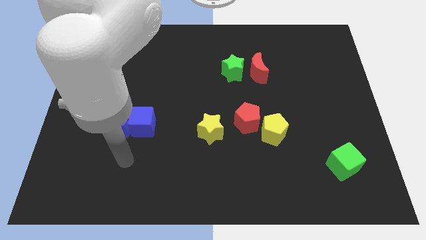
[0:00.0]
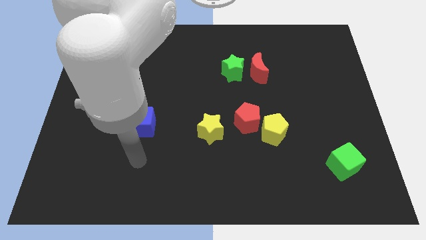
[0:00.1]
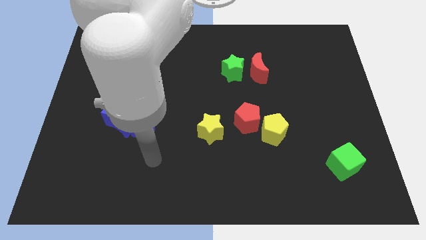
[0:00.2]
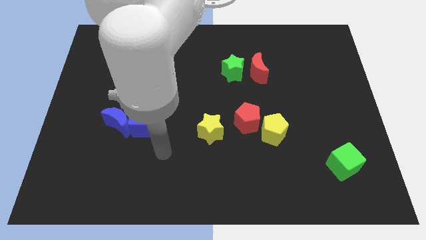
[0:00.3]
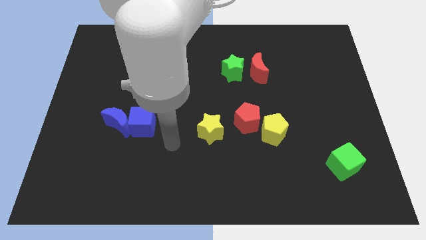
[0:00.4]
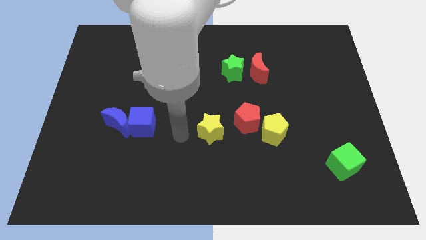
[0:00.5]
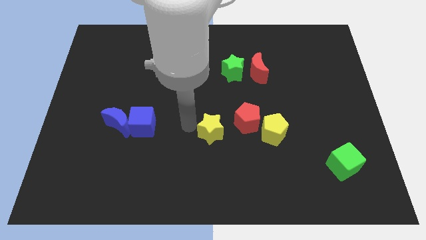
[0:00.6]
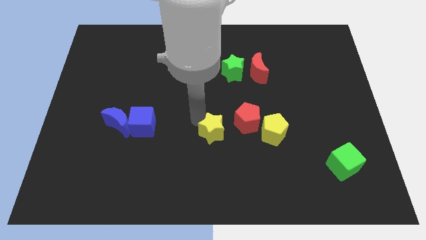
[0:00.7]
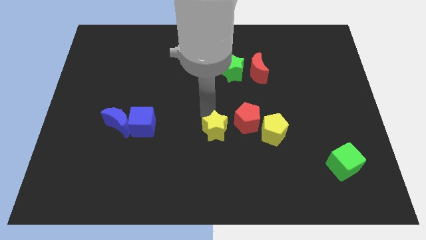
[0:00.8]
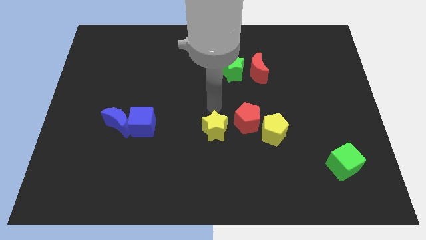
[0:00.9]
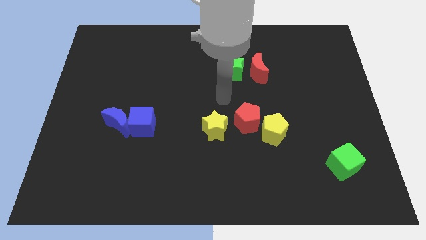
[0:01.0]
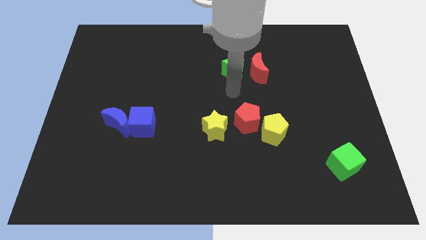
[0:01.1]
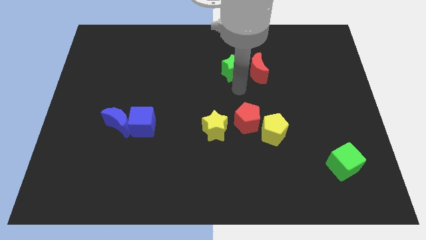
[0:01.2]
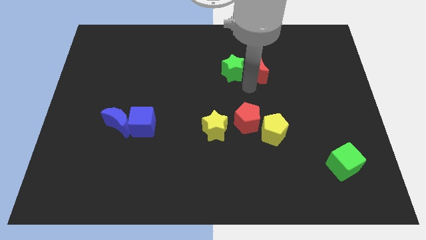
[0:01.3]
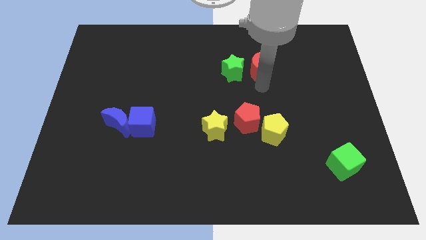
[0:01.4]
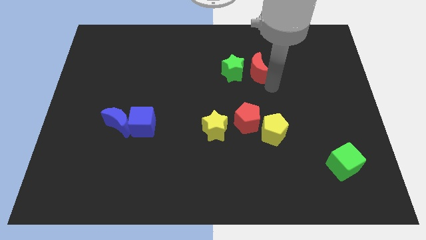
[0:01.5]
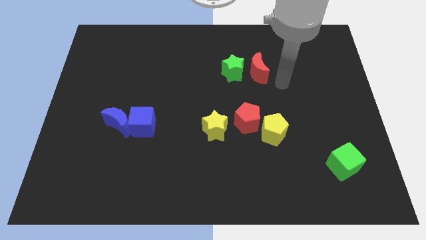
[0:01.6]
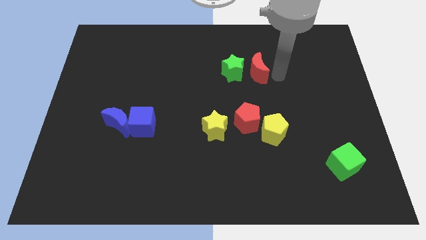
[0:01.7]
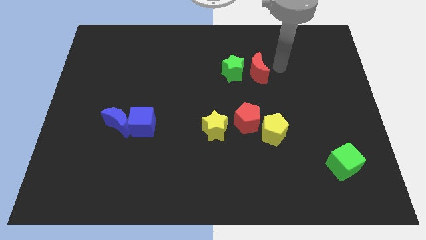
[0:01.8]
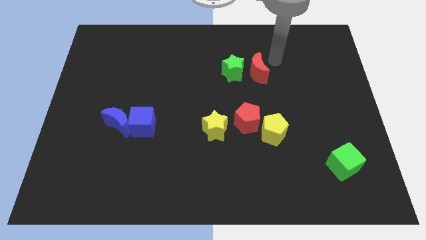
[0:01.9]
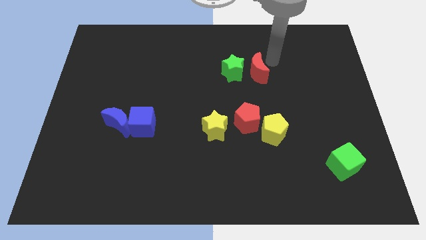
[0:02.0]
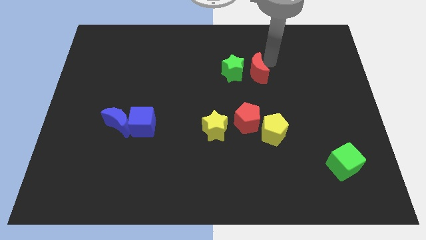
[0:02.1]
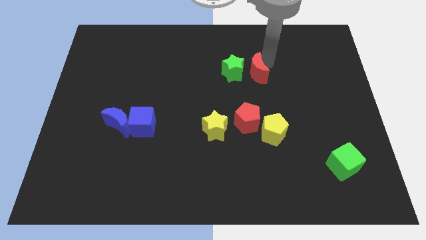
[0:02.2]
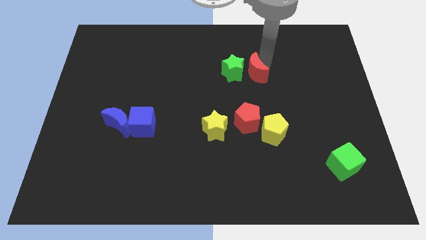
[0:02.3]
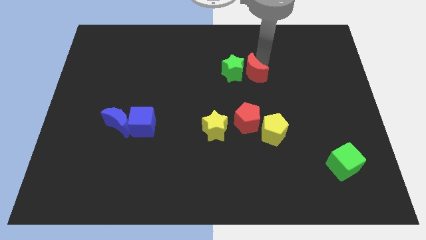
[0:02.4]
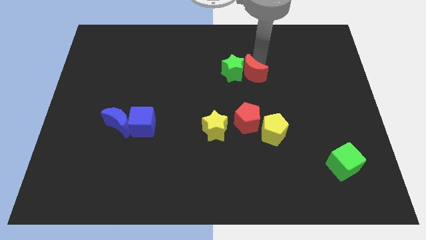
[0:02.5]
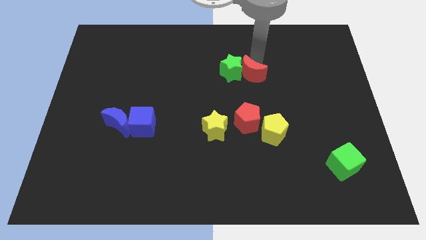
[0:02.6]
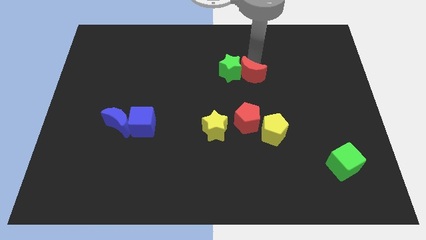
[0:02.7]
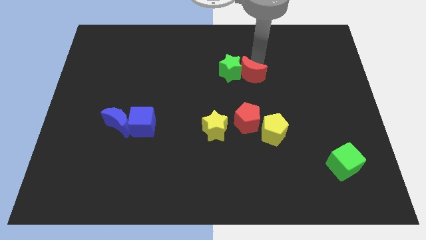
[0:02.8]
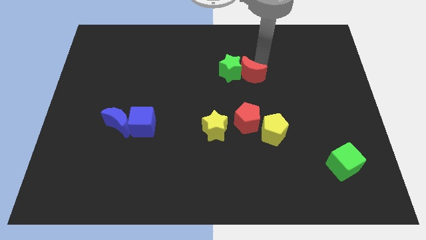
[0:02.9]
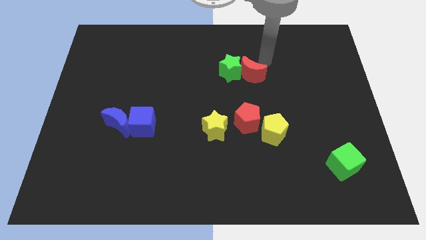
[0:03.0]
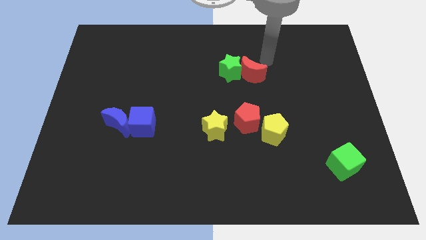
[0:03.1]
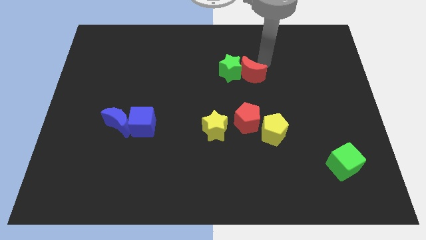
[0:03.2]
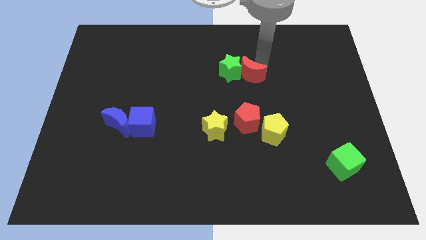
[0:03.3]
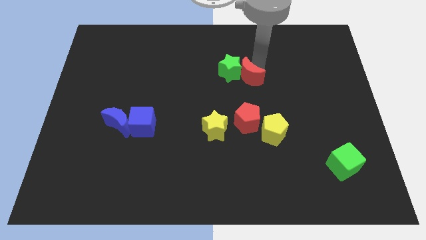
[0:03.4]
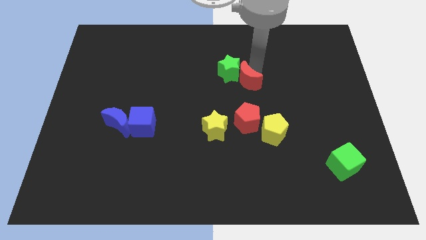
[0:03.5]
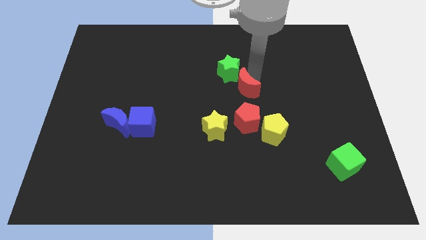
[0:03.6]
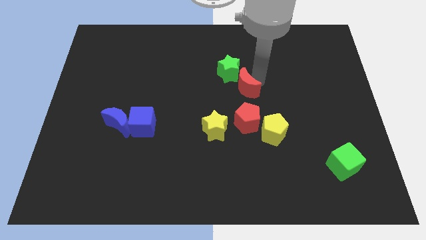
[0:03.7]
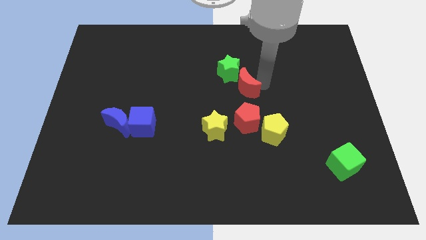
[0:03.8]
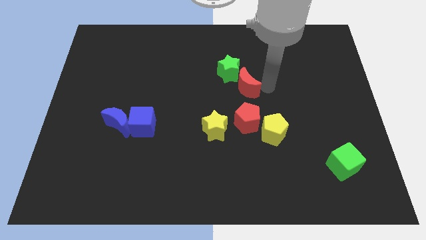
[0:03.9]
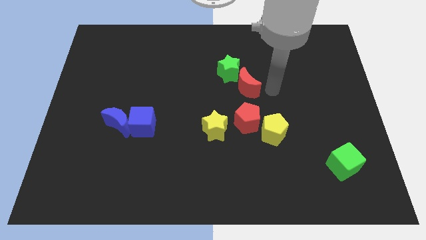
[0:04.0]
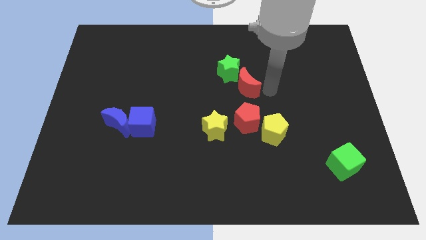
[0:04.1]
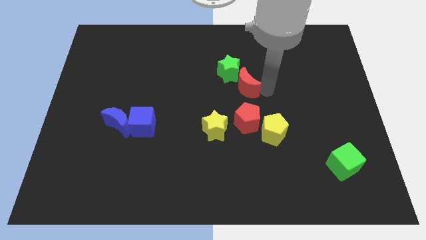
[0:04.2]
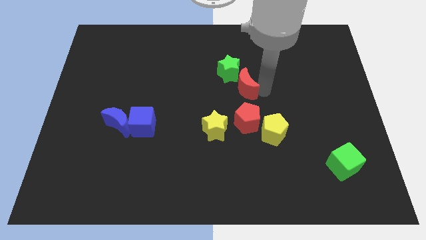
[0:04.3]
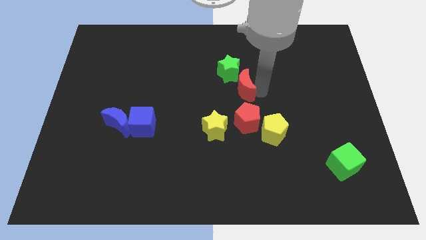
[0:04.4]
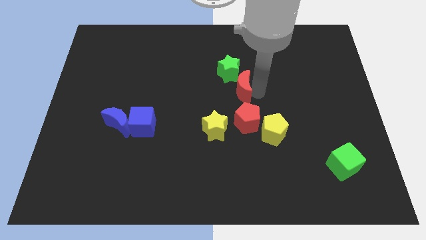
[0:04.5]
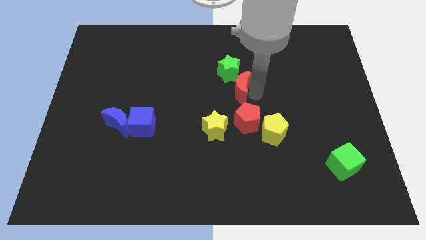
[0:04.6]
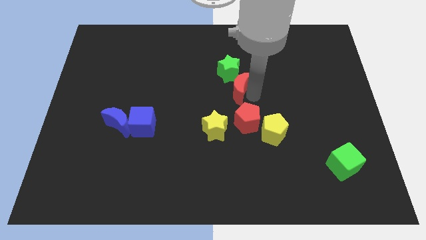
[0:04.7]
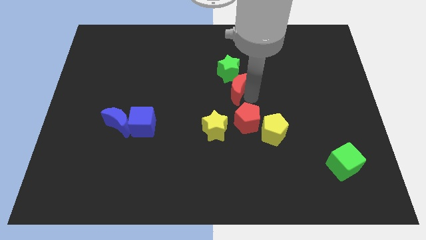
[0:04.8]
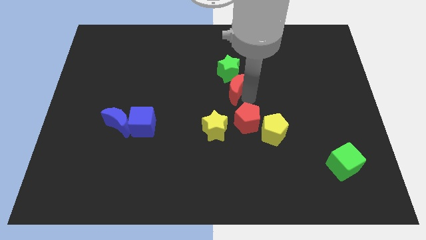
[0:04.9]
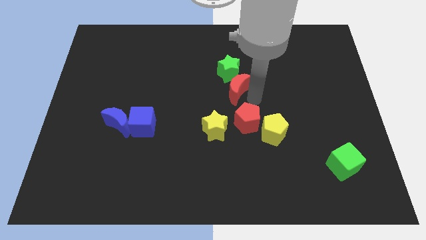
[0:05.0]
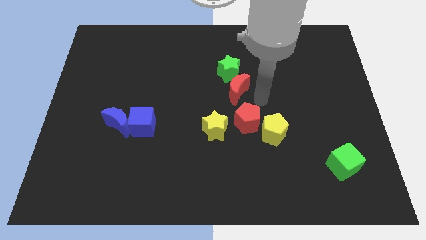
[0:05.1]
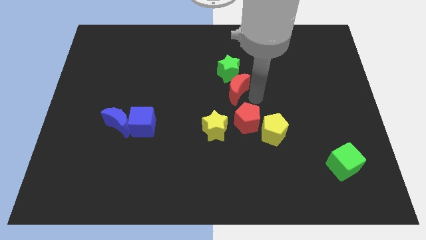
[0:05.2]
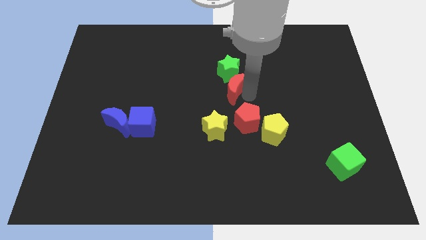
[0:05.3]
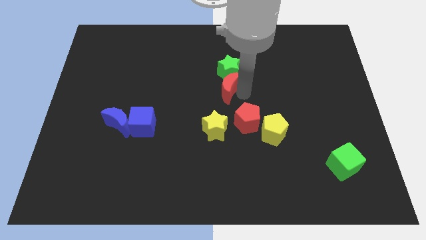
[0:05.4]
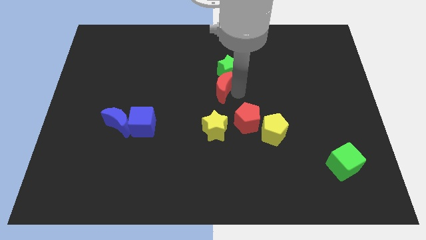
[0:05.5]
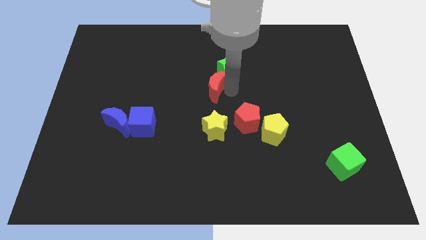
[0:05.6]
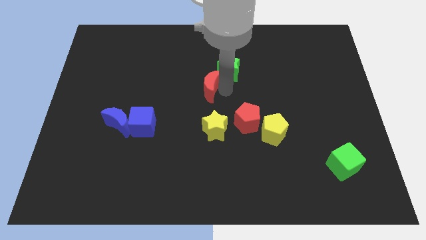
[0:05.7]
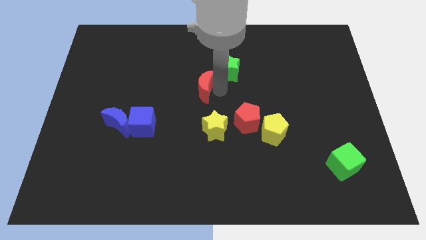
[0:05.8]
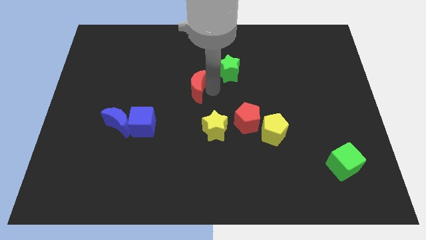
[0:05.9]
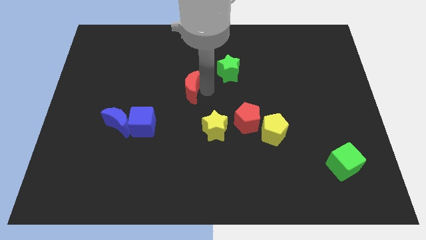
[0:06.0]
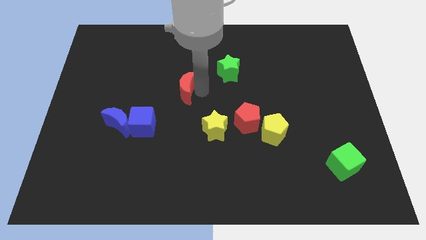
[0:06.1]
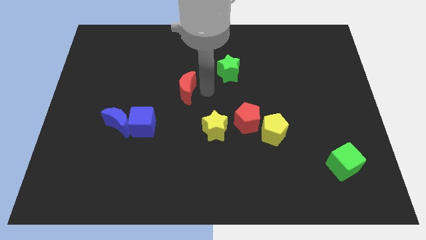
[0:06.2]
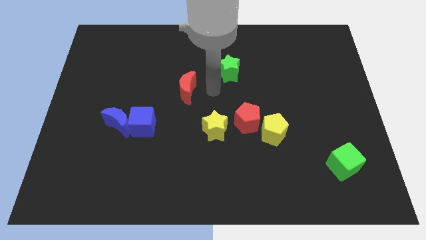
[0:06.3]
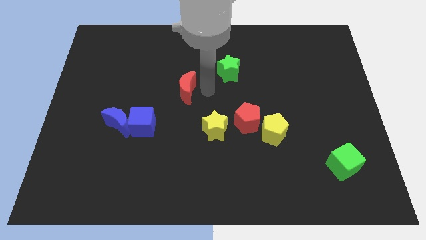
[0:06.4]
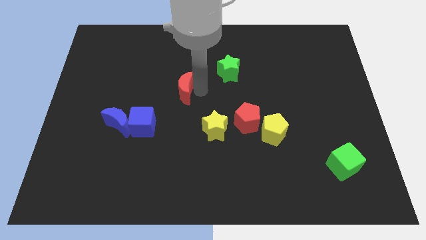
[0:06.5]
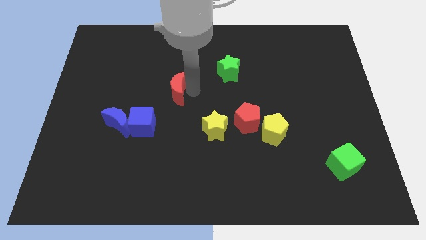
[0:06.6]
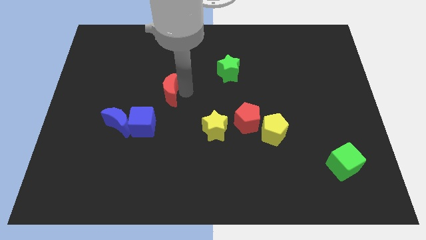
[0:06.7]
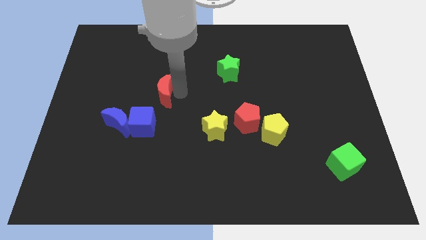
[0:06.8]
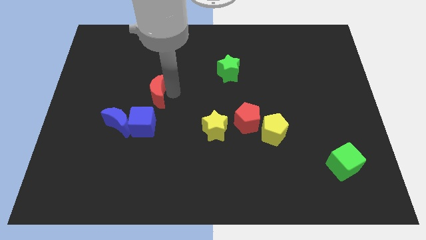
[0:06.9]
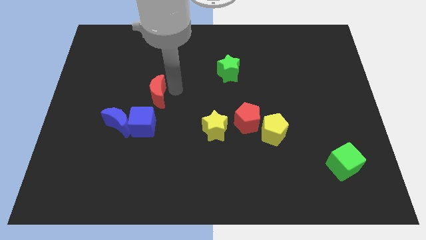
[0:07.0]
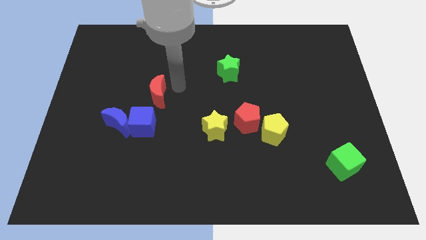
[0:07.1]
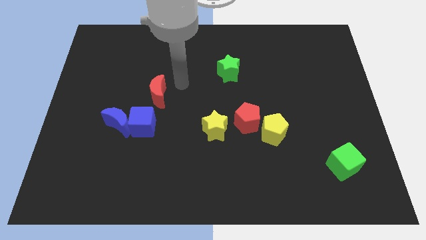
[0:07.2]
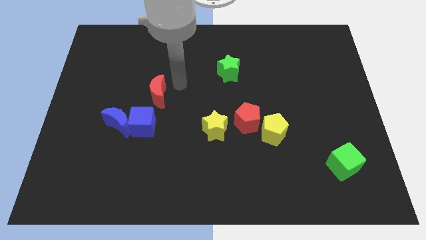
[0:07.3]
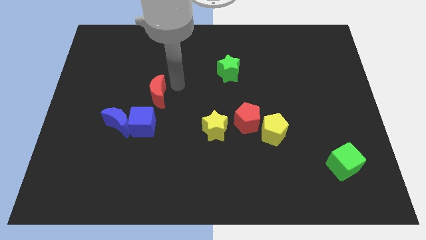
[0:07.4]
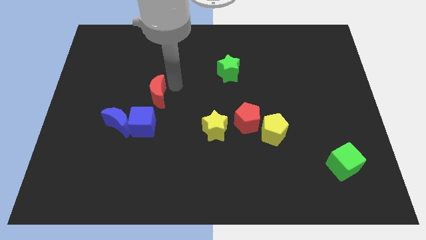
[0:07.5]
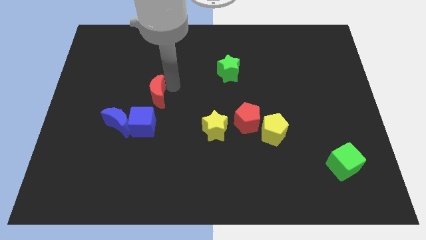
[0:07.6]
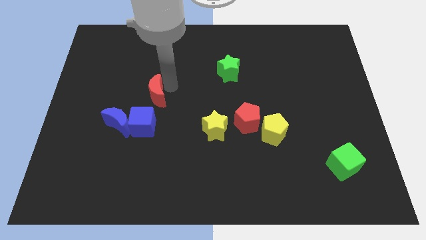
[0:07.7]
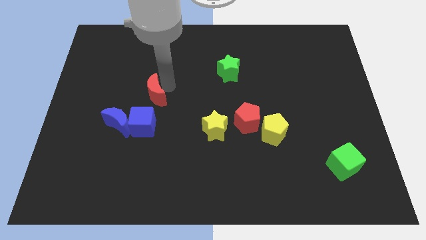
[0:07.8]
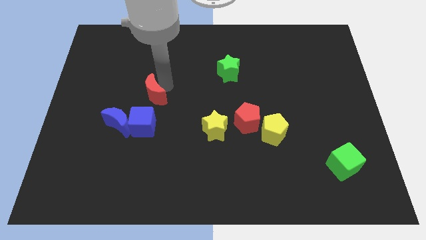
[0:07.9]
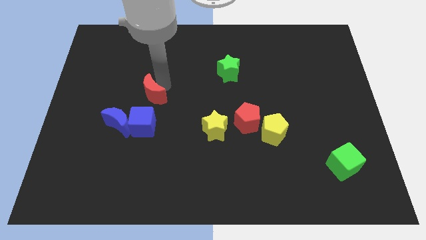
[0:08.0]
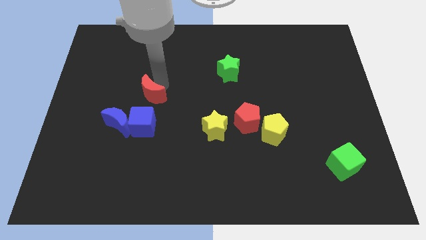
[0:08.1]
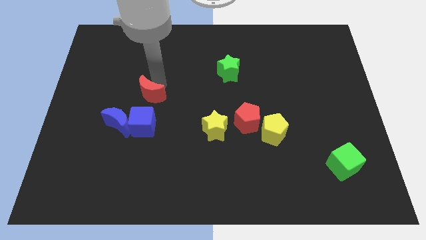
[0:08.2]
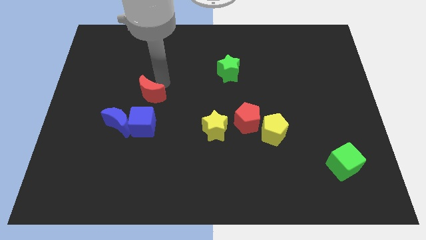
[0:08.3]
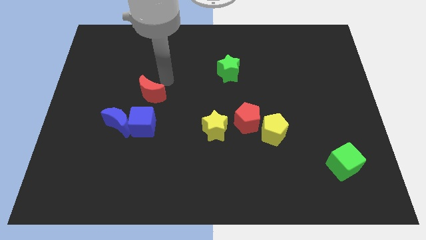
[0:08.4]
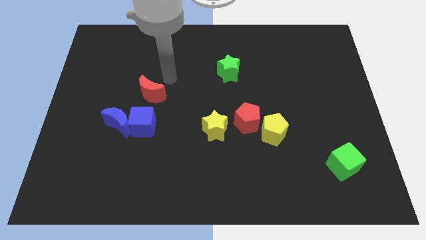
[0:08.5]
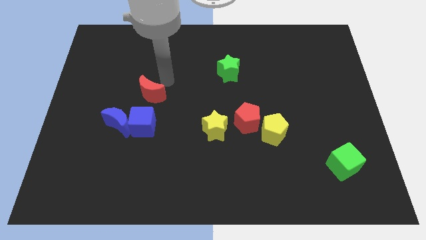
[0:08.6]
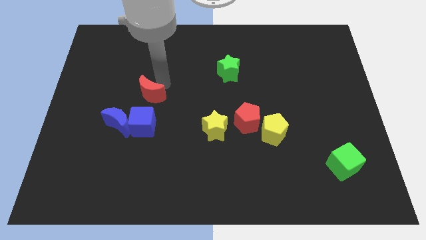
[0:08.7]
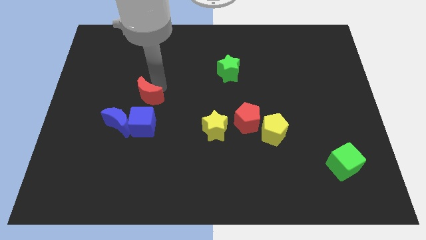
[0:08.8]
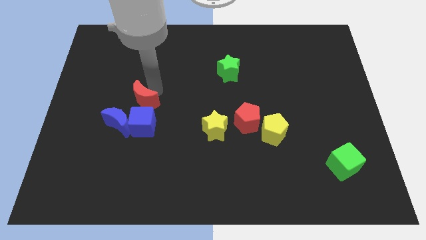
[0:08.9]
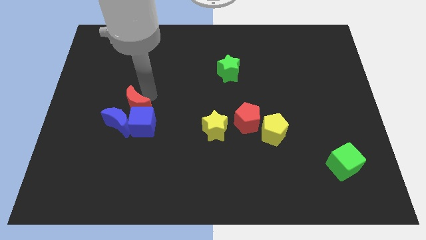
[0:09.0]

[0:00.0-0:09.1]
move the red moon towards the blue moon
